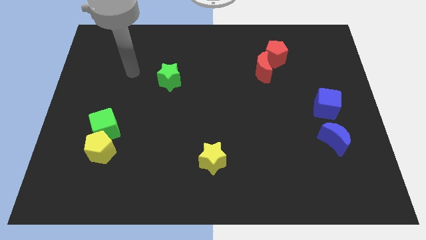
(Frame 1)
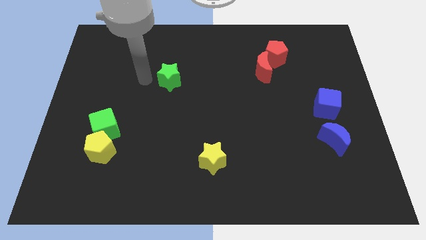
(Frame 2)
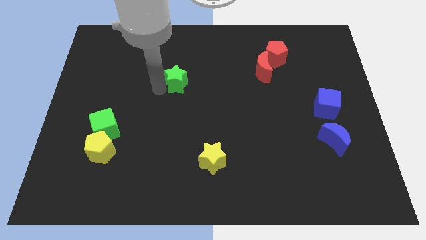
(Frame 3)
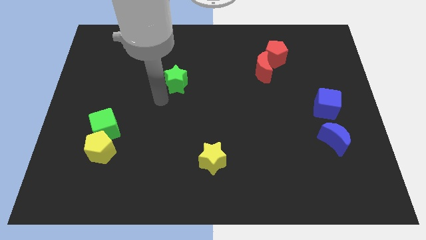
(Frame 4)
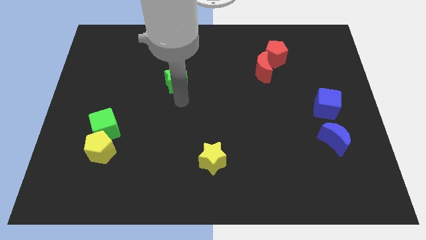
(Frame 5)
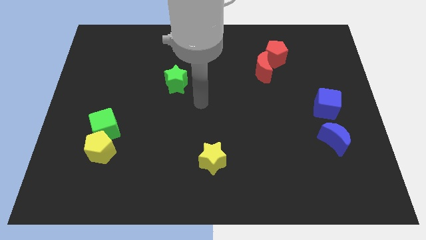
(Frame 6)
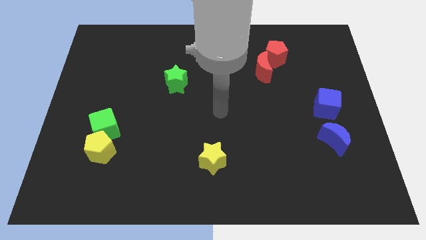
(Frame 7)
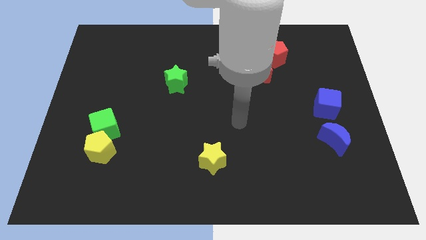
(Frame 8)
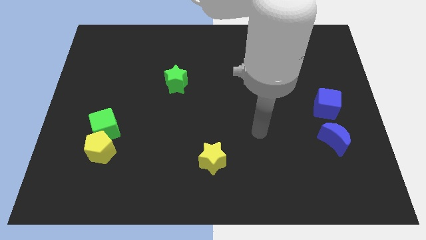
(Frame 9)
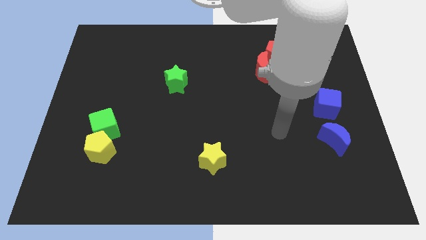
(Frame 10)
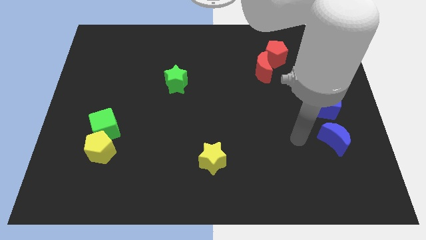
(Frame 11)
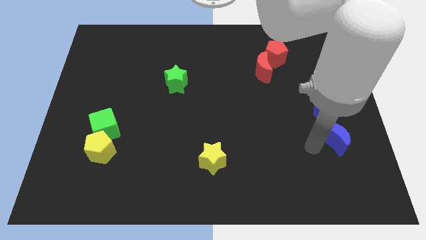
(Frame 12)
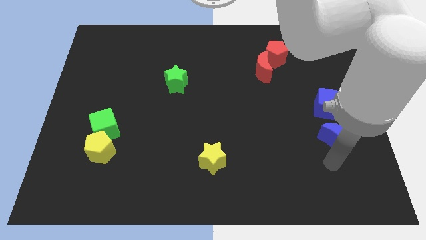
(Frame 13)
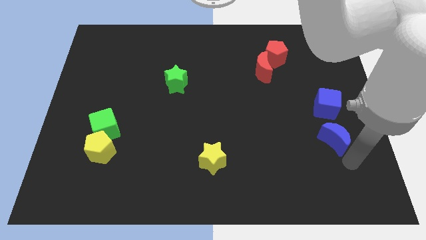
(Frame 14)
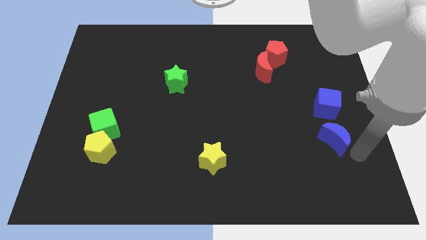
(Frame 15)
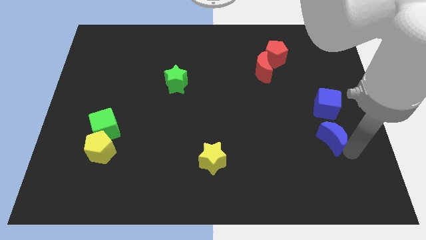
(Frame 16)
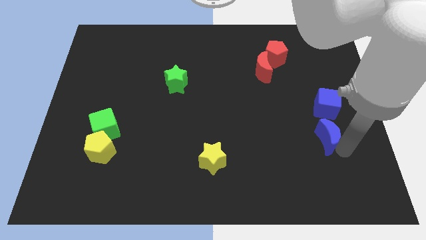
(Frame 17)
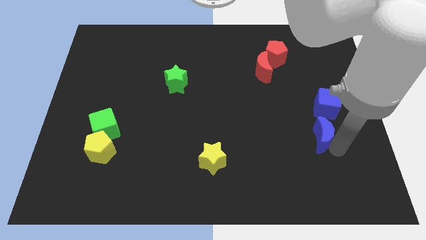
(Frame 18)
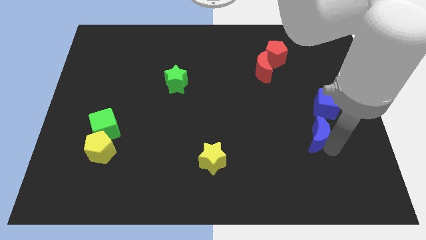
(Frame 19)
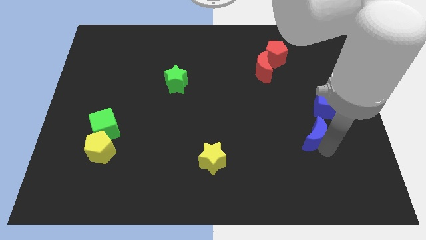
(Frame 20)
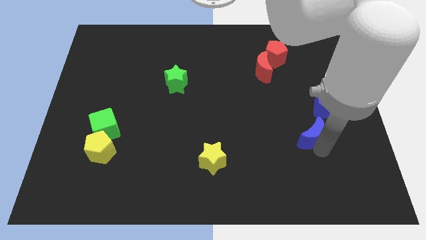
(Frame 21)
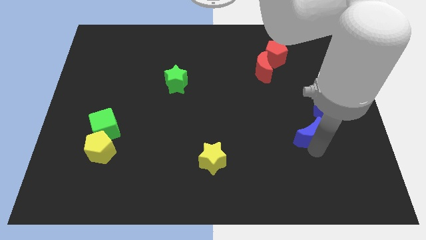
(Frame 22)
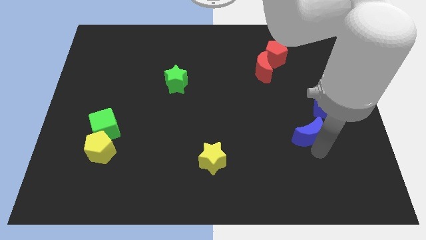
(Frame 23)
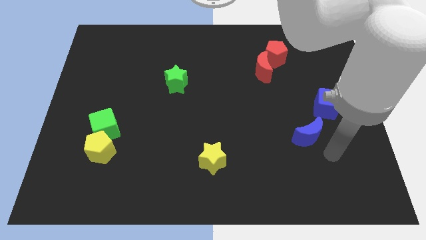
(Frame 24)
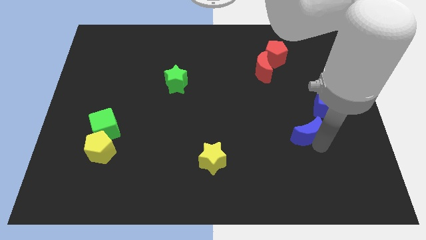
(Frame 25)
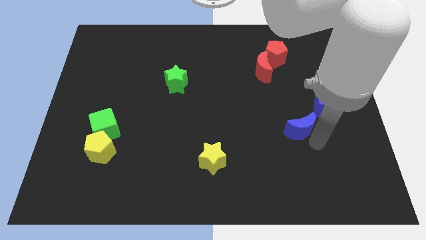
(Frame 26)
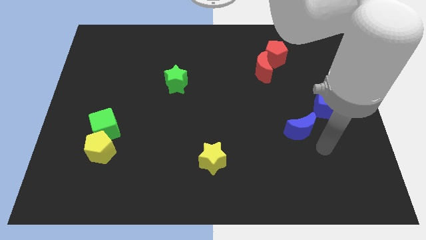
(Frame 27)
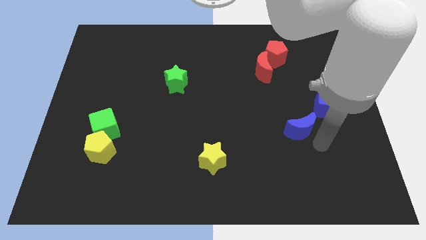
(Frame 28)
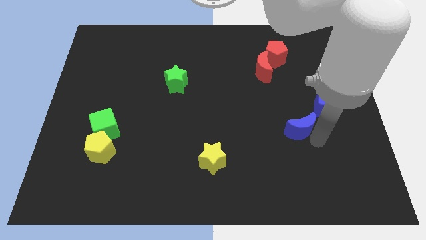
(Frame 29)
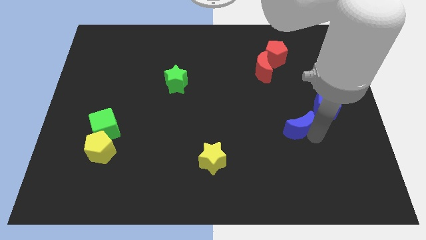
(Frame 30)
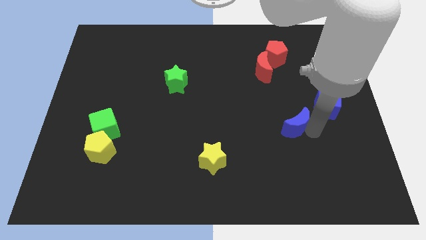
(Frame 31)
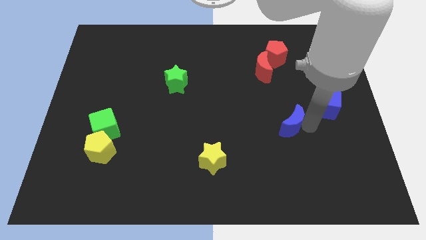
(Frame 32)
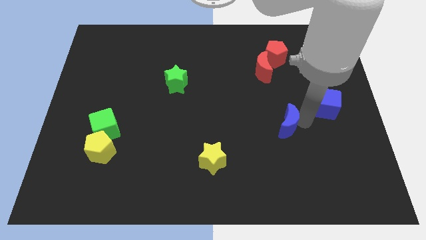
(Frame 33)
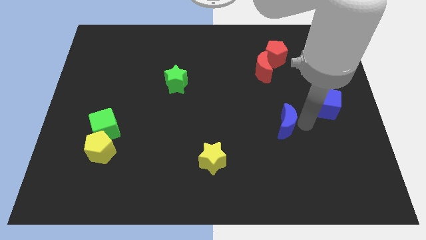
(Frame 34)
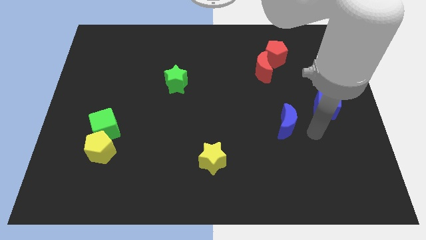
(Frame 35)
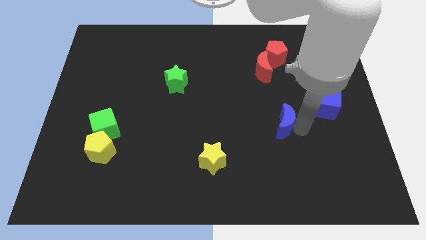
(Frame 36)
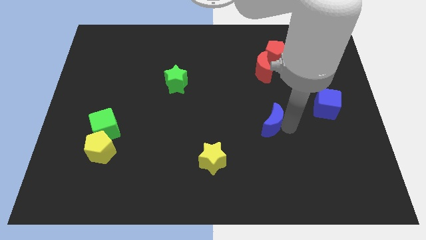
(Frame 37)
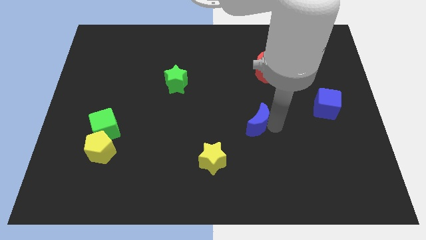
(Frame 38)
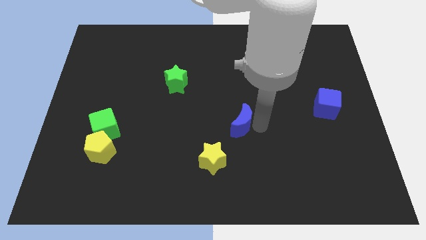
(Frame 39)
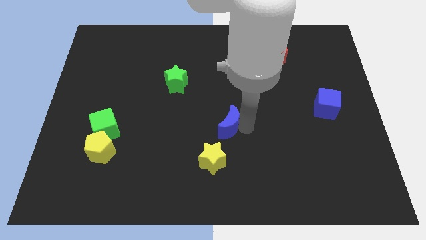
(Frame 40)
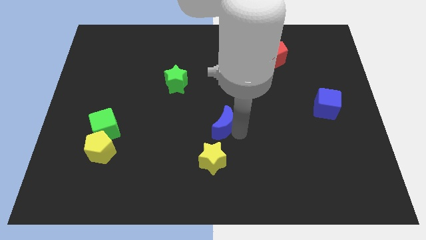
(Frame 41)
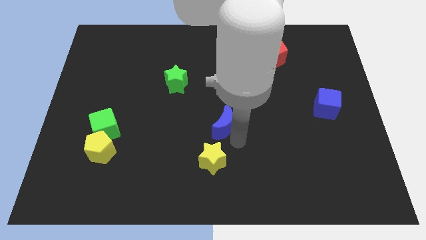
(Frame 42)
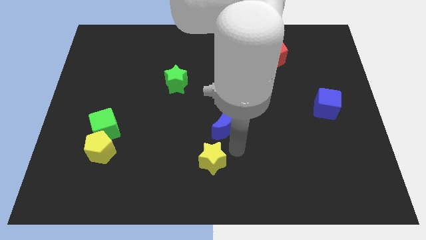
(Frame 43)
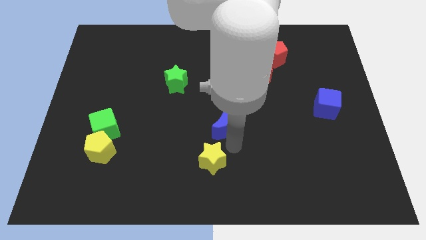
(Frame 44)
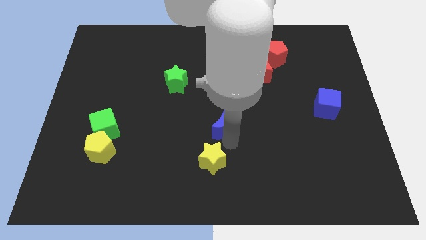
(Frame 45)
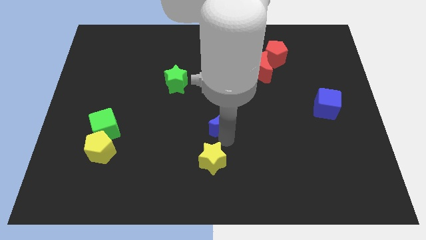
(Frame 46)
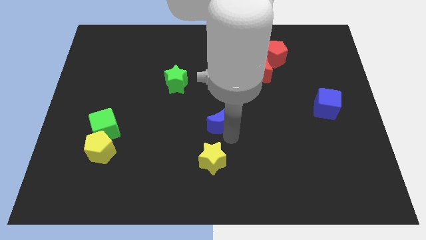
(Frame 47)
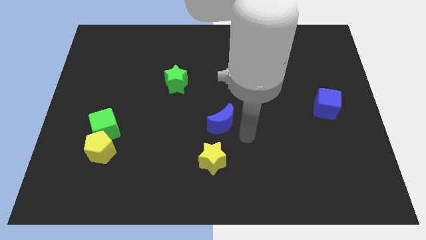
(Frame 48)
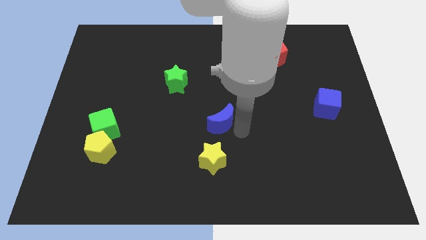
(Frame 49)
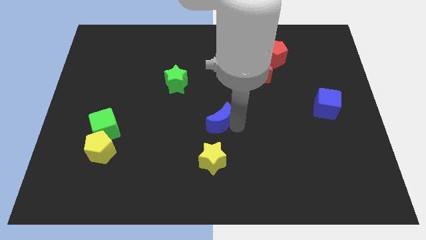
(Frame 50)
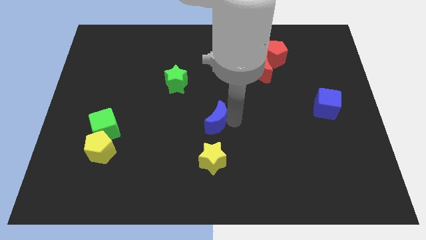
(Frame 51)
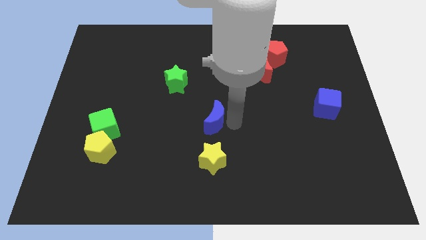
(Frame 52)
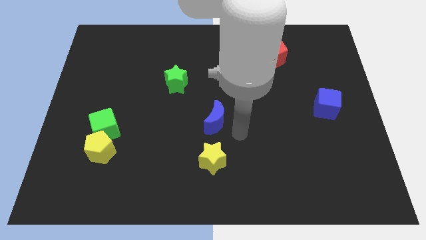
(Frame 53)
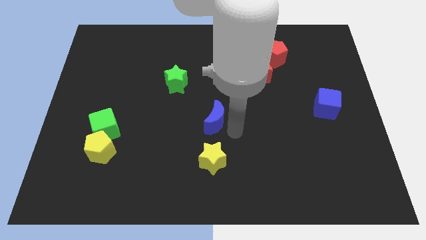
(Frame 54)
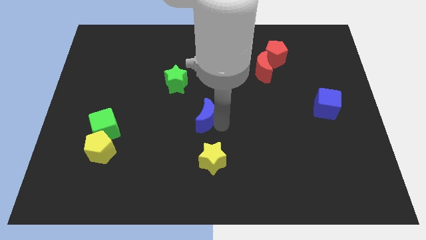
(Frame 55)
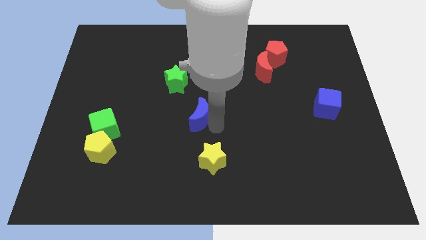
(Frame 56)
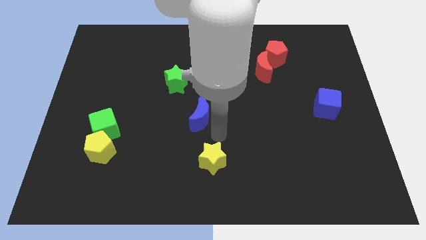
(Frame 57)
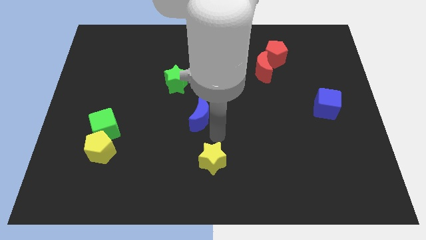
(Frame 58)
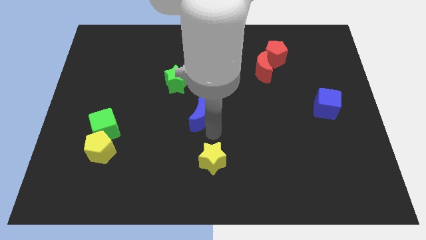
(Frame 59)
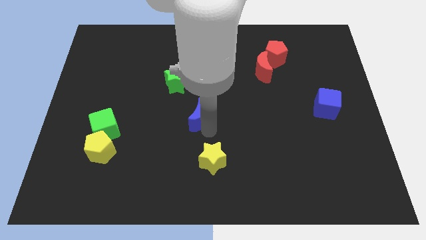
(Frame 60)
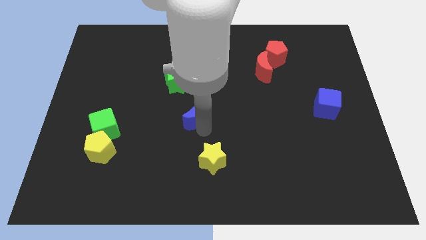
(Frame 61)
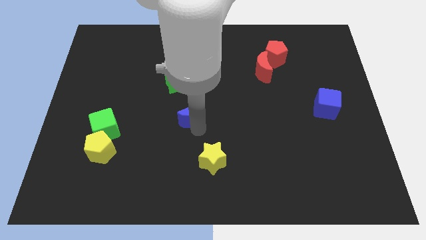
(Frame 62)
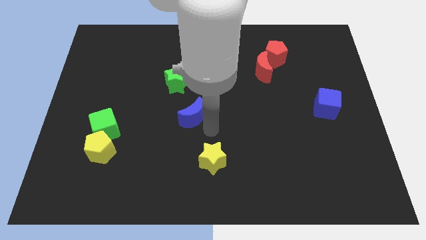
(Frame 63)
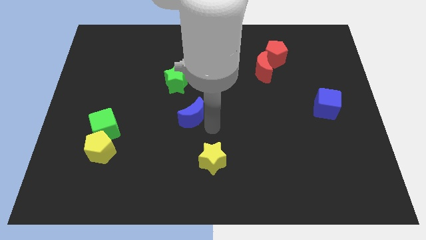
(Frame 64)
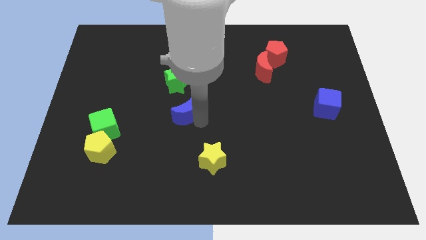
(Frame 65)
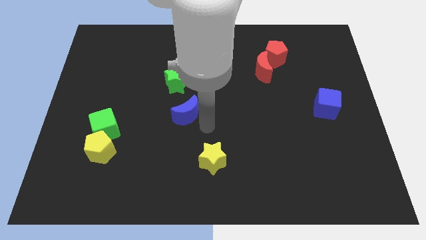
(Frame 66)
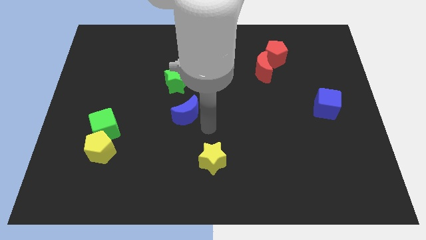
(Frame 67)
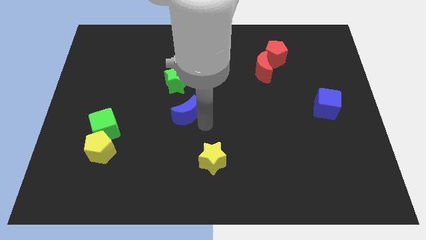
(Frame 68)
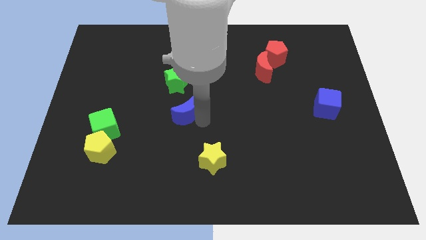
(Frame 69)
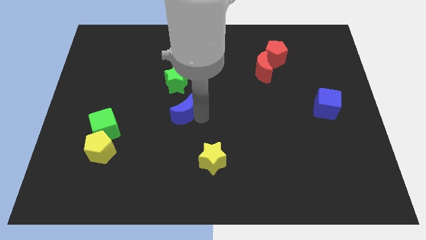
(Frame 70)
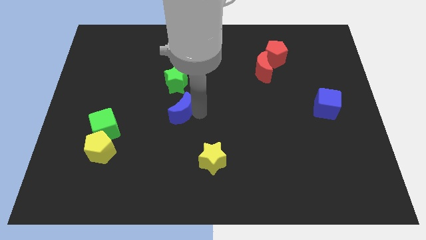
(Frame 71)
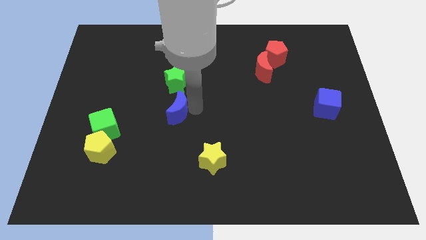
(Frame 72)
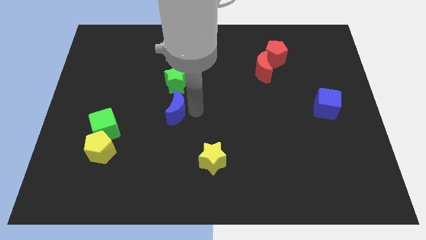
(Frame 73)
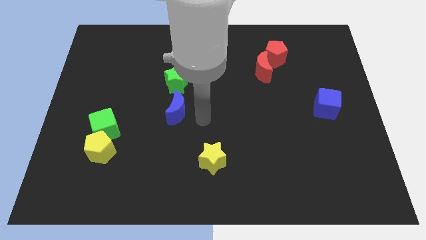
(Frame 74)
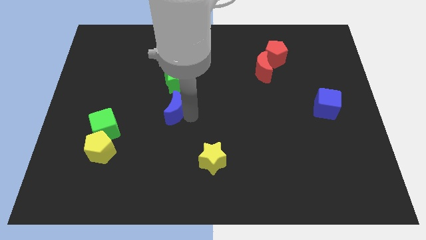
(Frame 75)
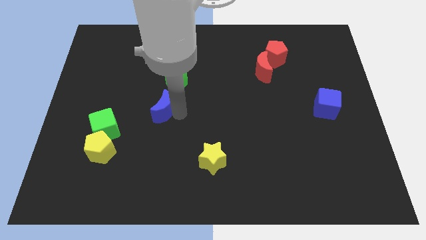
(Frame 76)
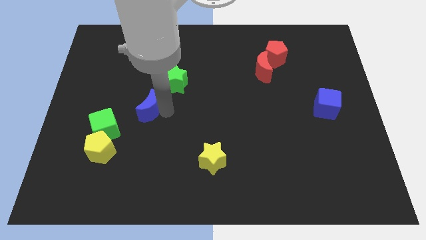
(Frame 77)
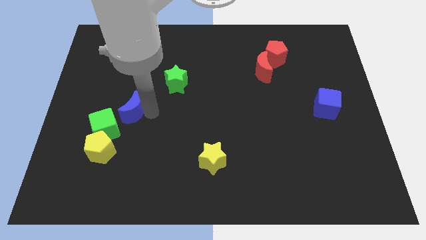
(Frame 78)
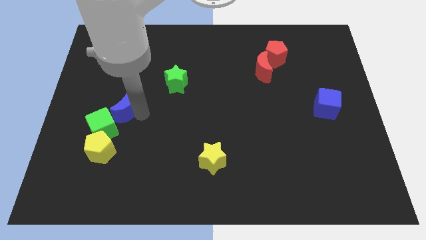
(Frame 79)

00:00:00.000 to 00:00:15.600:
slide the blue moon to the top of the green cube
